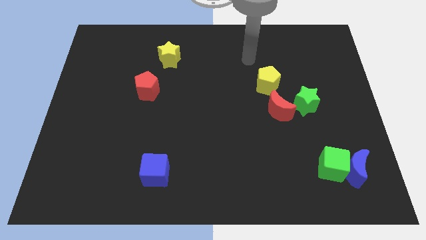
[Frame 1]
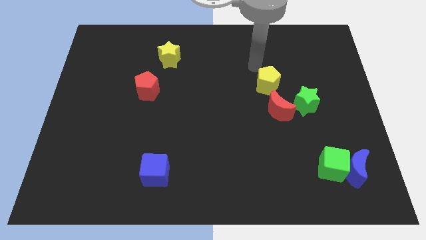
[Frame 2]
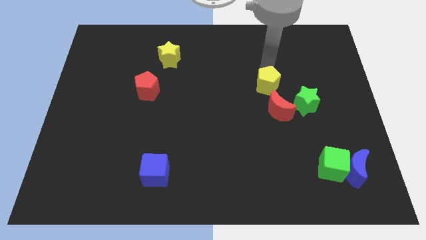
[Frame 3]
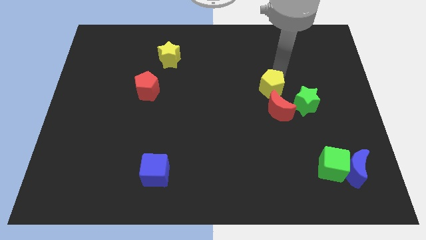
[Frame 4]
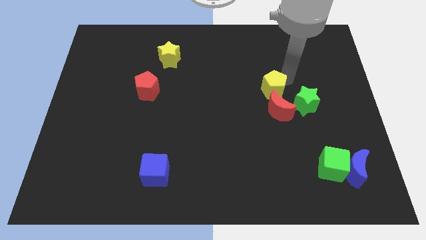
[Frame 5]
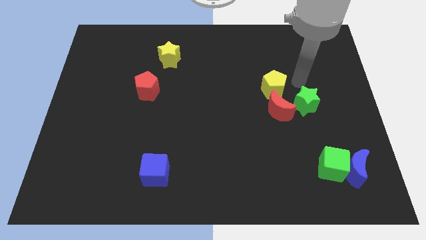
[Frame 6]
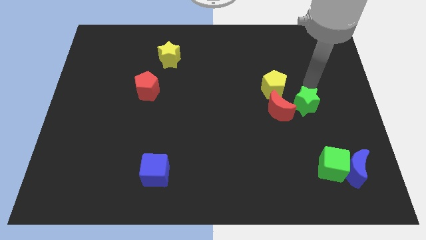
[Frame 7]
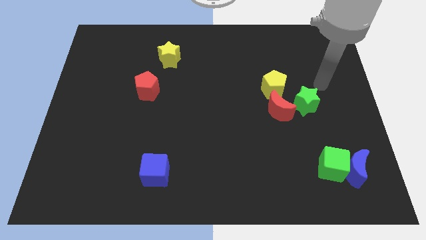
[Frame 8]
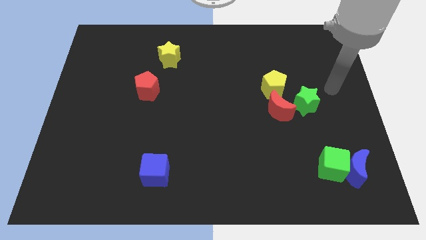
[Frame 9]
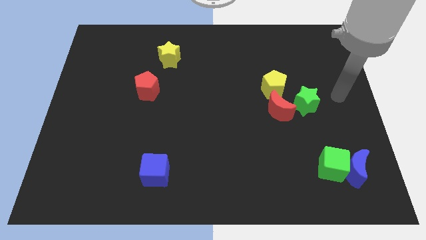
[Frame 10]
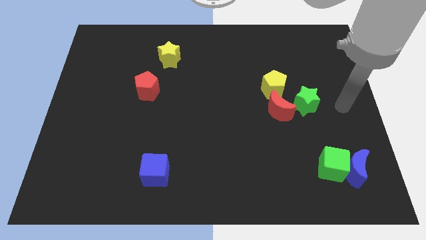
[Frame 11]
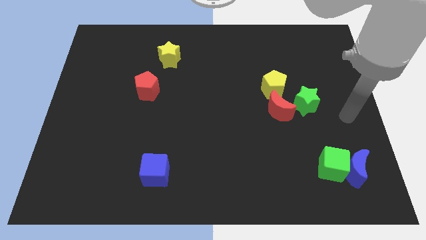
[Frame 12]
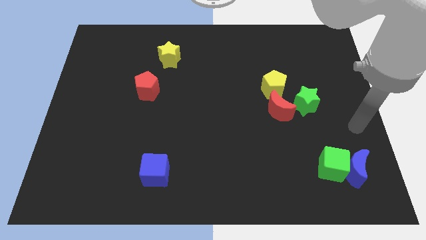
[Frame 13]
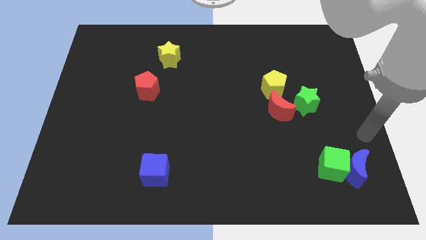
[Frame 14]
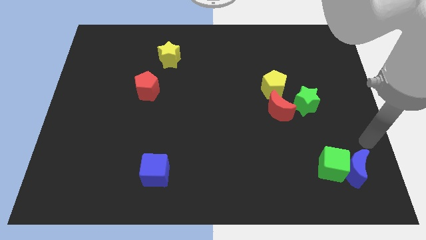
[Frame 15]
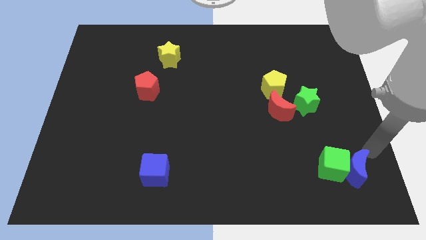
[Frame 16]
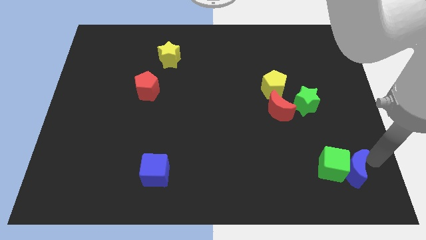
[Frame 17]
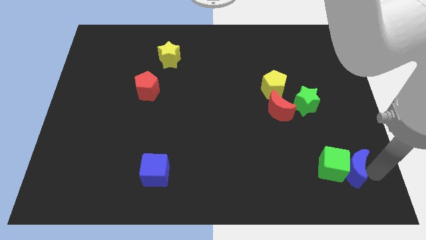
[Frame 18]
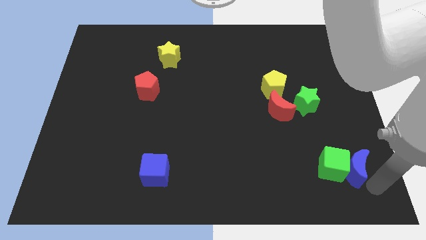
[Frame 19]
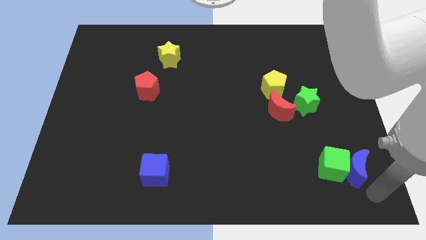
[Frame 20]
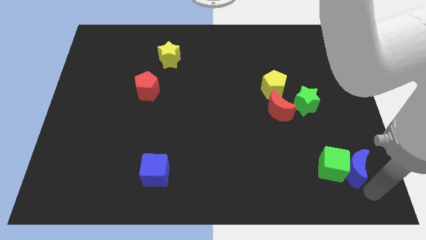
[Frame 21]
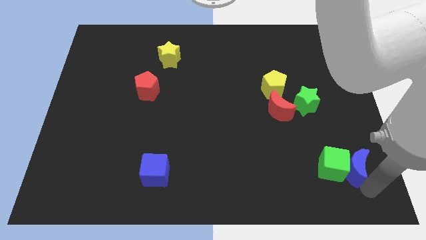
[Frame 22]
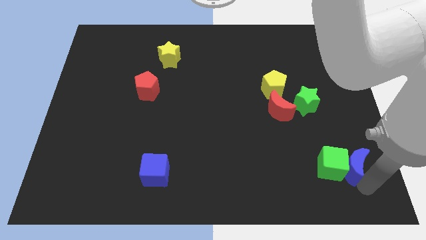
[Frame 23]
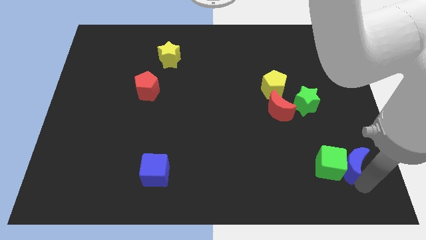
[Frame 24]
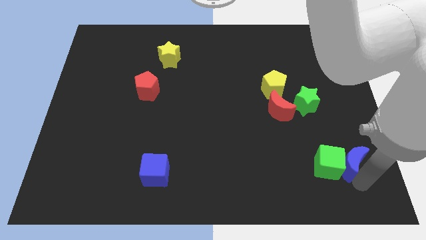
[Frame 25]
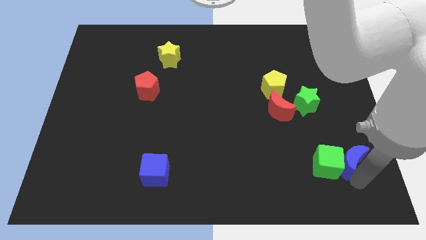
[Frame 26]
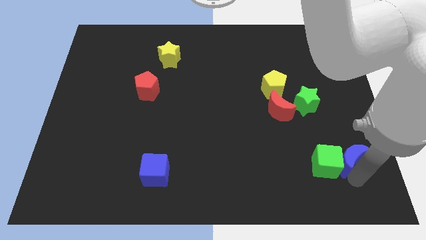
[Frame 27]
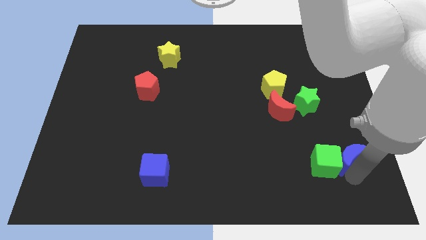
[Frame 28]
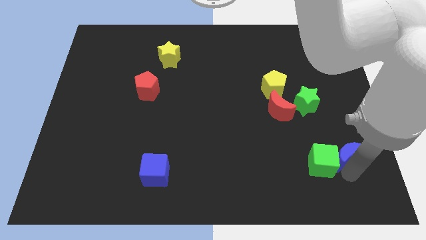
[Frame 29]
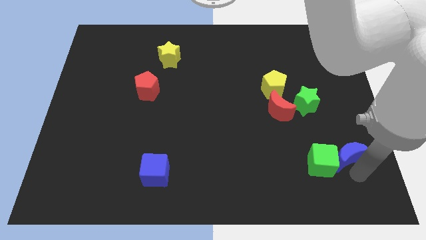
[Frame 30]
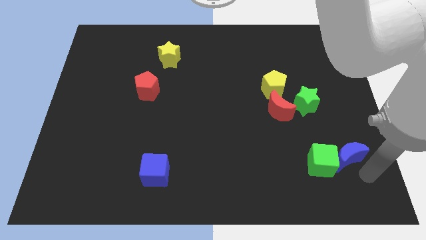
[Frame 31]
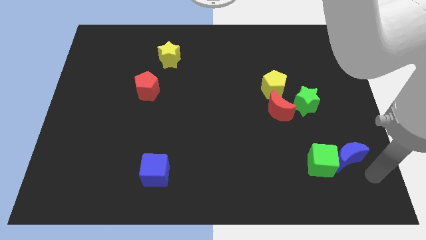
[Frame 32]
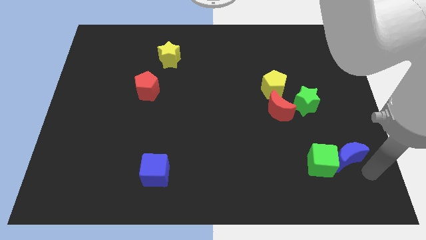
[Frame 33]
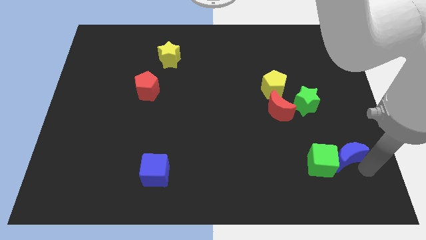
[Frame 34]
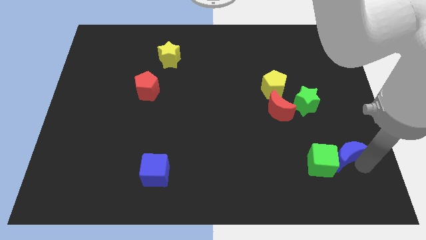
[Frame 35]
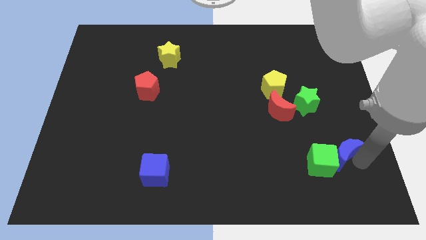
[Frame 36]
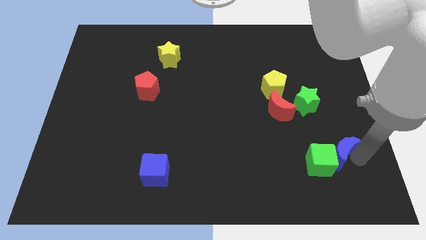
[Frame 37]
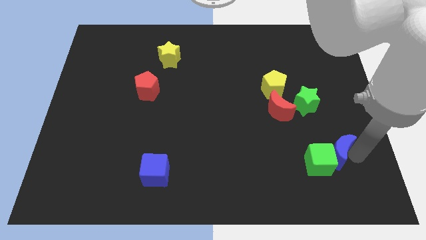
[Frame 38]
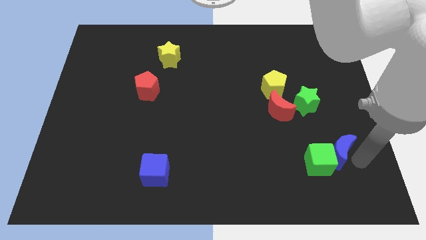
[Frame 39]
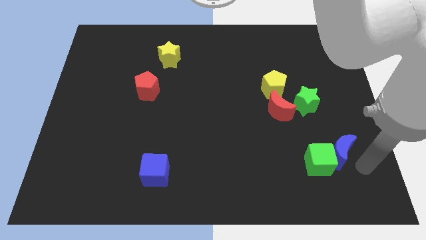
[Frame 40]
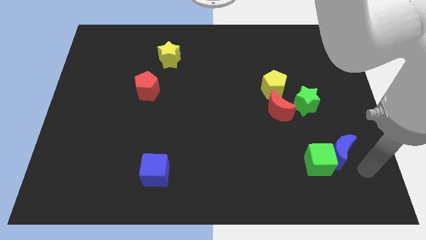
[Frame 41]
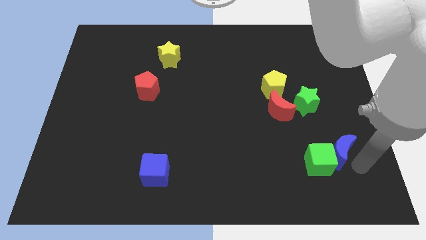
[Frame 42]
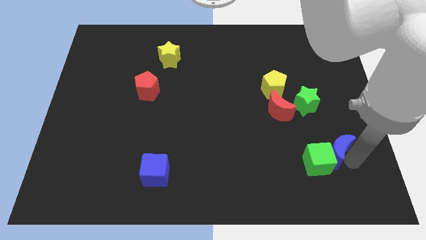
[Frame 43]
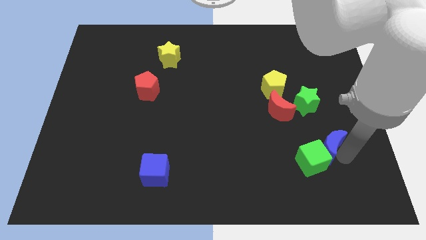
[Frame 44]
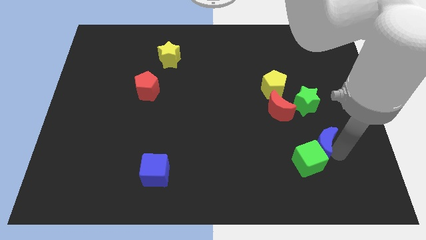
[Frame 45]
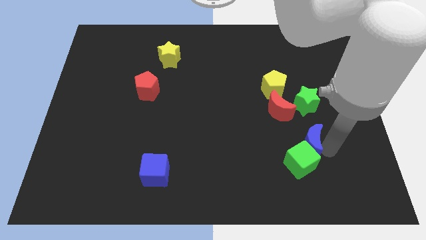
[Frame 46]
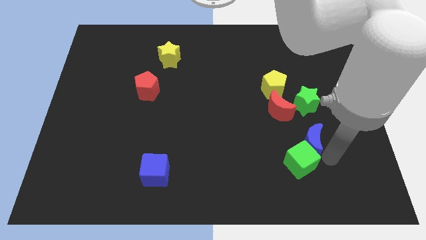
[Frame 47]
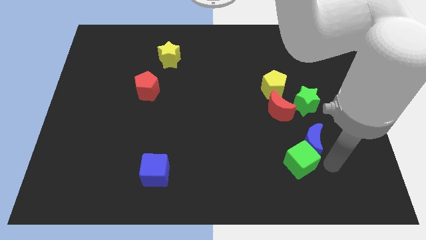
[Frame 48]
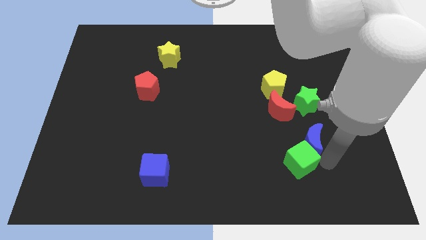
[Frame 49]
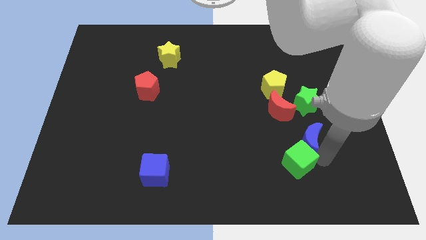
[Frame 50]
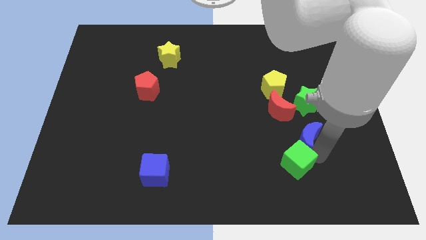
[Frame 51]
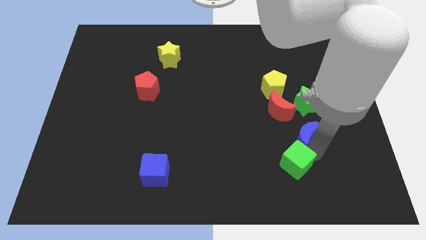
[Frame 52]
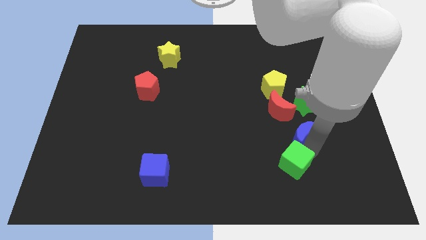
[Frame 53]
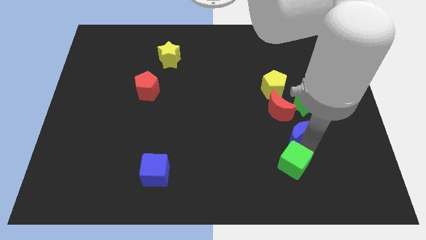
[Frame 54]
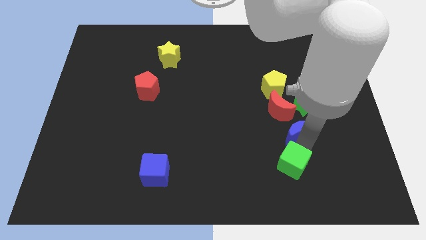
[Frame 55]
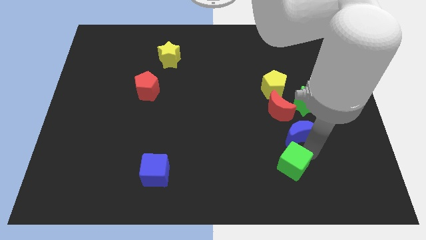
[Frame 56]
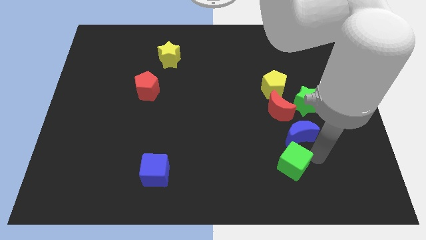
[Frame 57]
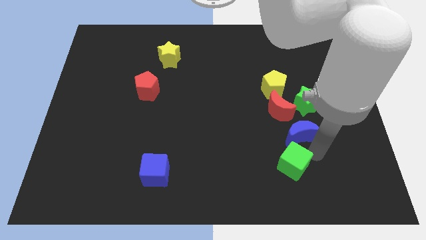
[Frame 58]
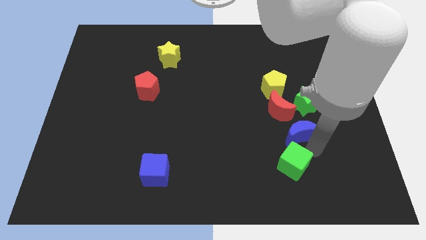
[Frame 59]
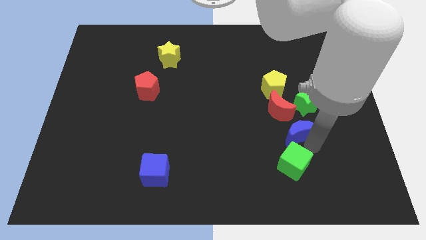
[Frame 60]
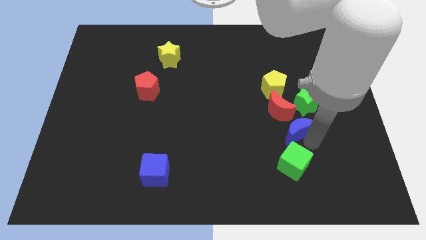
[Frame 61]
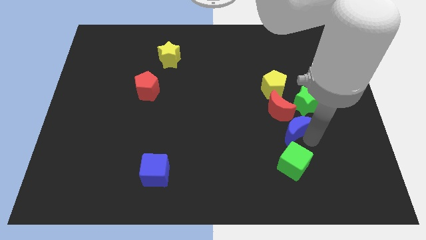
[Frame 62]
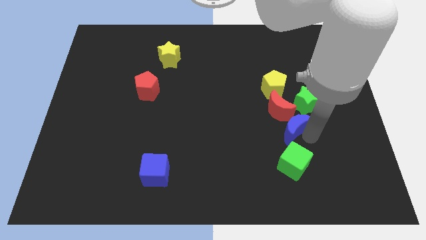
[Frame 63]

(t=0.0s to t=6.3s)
push the blue moon to the red moon

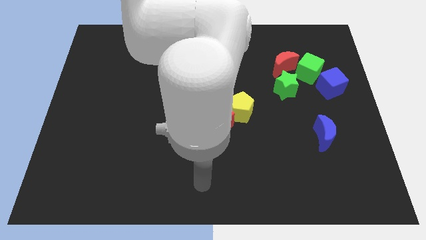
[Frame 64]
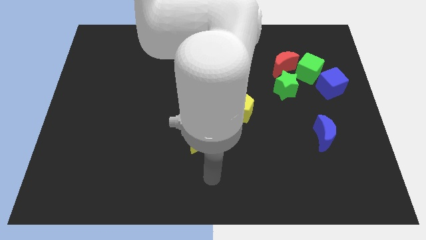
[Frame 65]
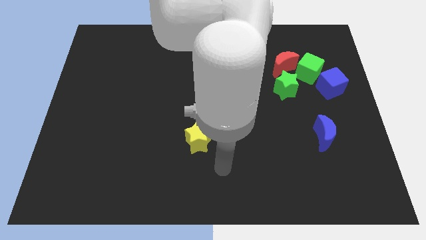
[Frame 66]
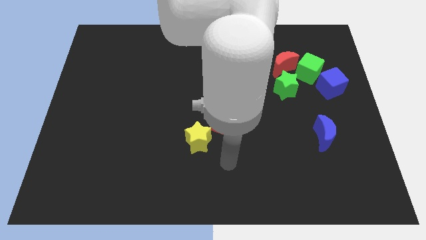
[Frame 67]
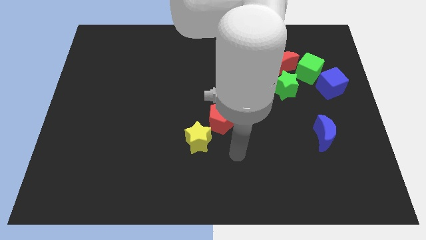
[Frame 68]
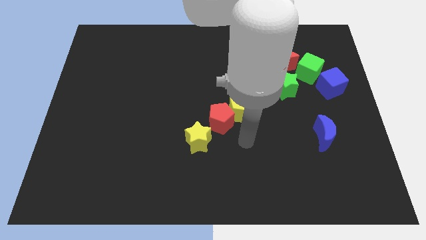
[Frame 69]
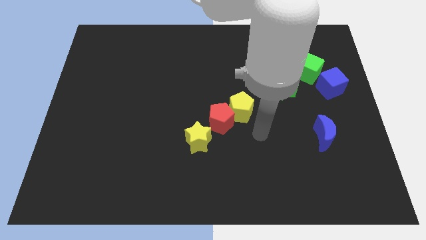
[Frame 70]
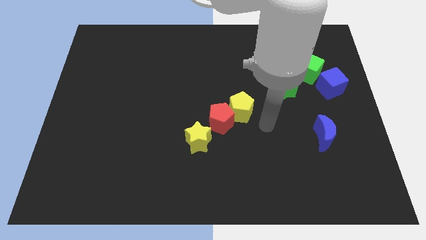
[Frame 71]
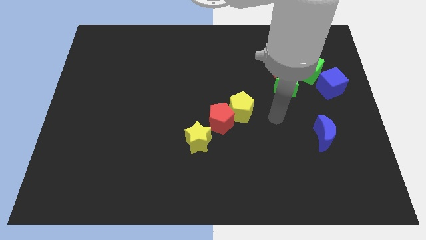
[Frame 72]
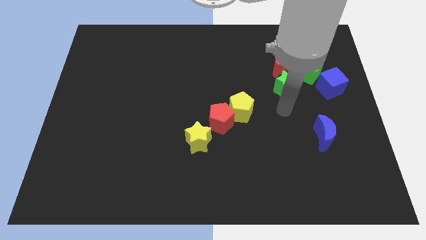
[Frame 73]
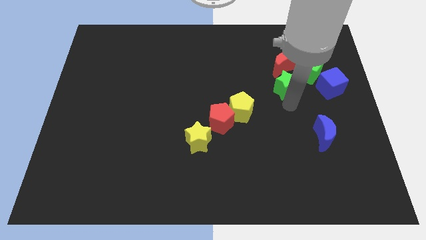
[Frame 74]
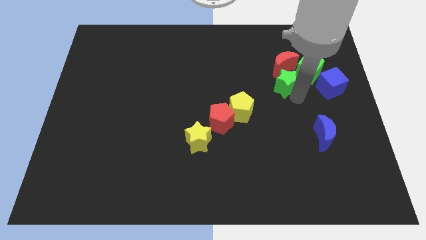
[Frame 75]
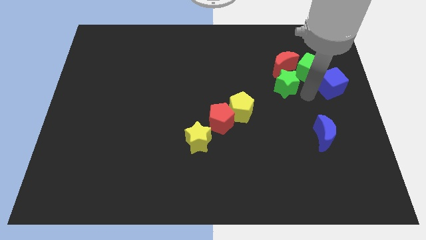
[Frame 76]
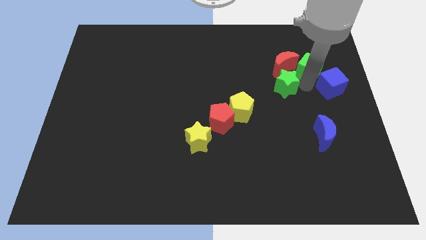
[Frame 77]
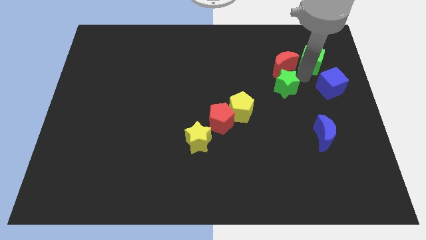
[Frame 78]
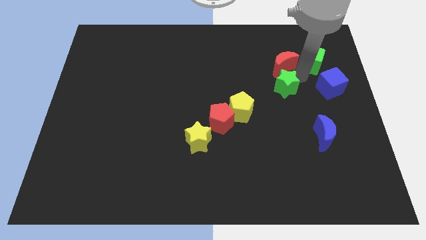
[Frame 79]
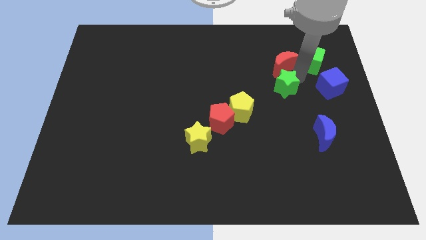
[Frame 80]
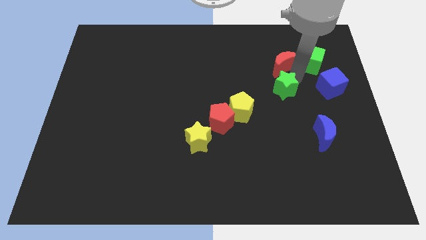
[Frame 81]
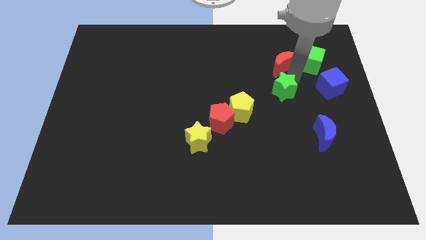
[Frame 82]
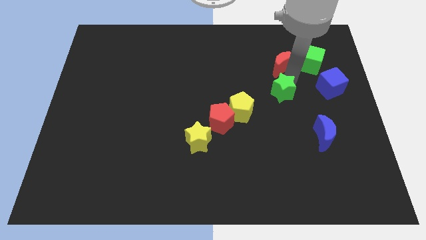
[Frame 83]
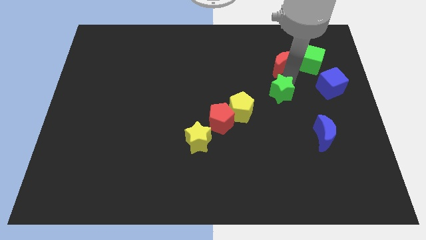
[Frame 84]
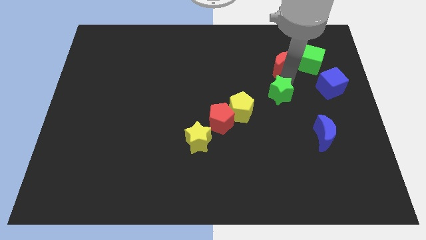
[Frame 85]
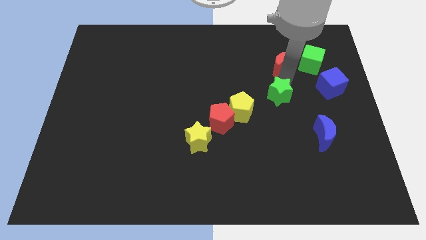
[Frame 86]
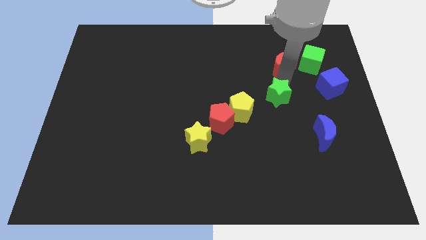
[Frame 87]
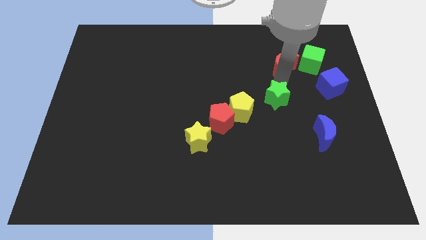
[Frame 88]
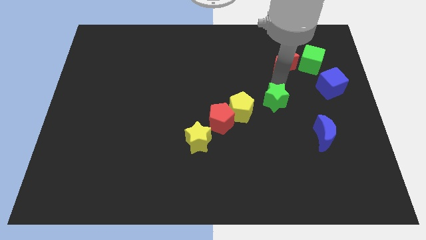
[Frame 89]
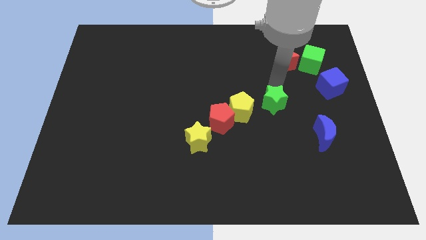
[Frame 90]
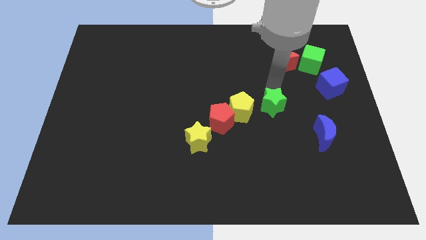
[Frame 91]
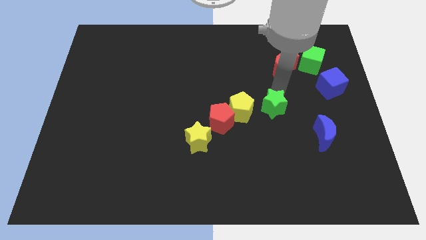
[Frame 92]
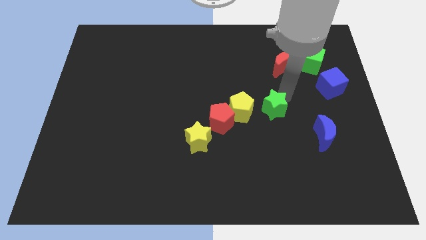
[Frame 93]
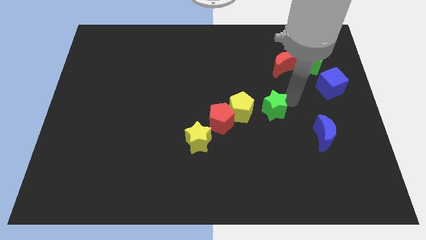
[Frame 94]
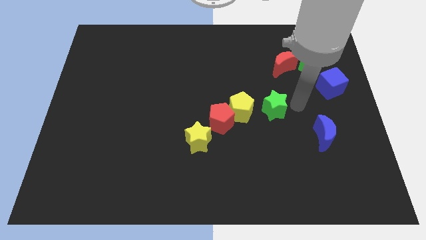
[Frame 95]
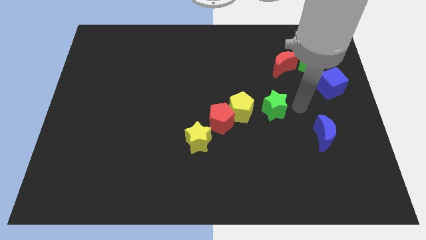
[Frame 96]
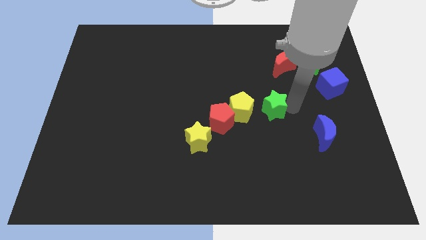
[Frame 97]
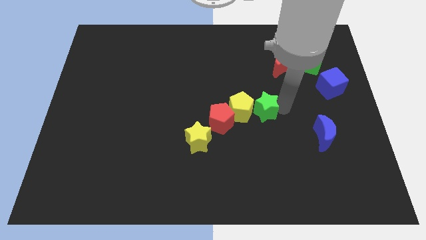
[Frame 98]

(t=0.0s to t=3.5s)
move the green star to the yellow pentagon
